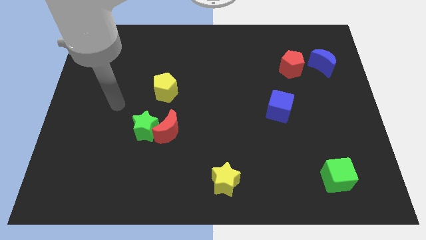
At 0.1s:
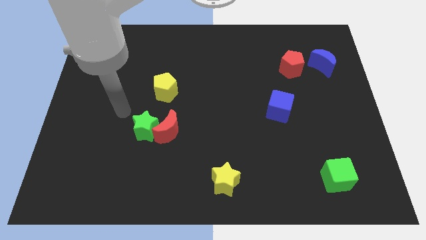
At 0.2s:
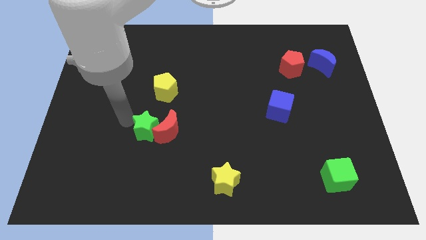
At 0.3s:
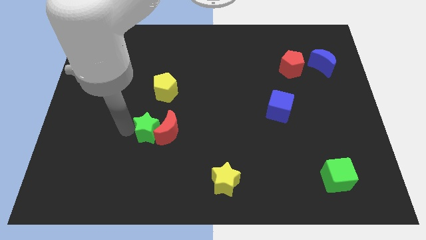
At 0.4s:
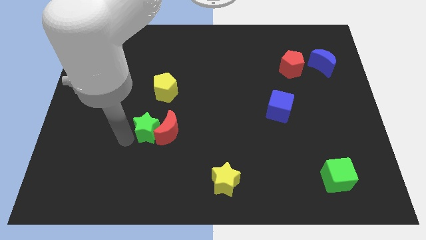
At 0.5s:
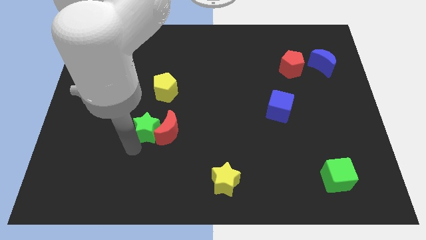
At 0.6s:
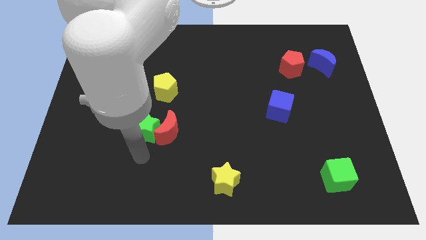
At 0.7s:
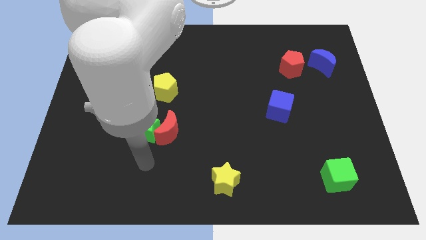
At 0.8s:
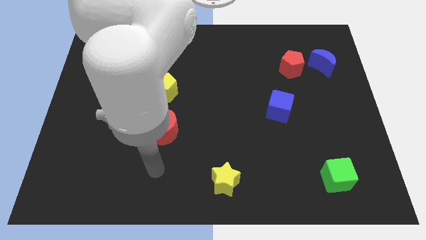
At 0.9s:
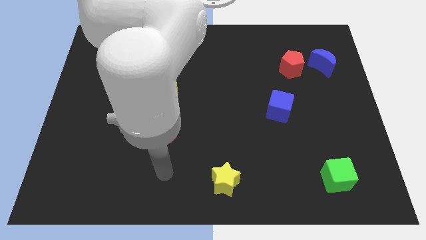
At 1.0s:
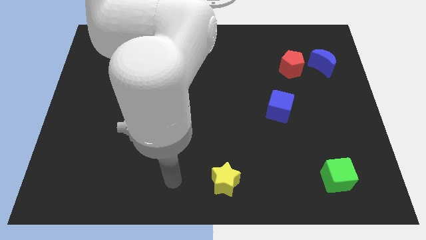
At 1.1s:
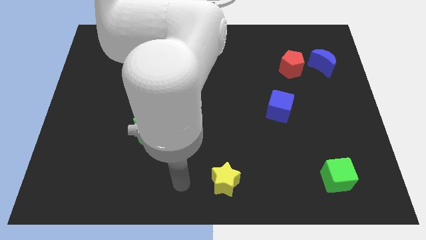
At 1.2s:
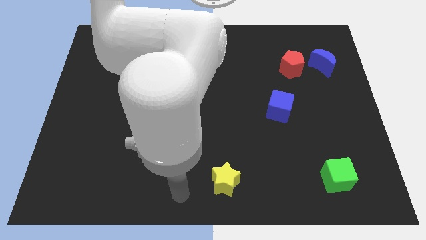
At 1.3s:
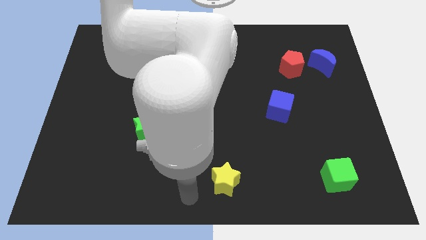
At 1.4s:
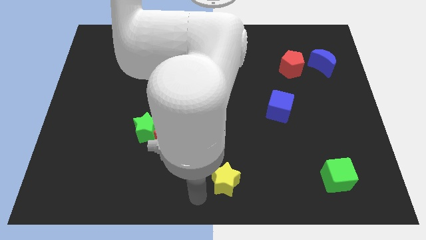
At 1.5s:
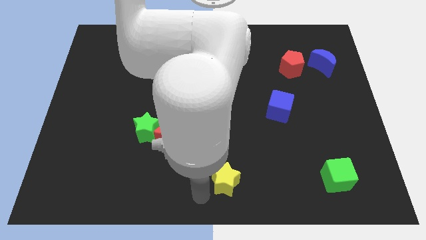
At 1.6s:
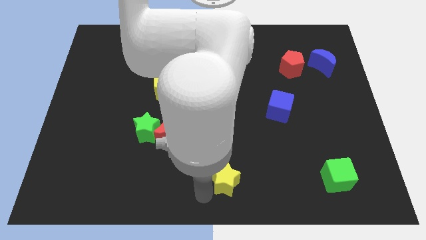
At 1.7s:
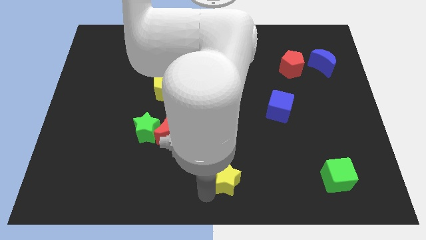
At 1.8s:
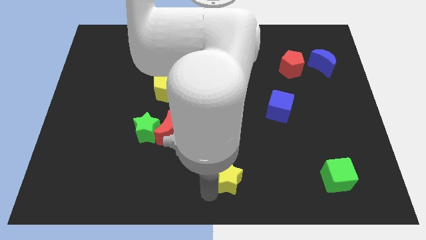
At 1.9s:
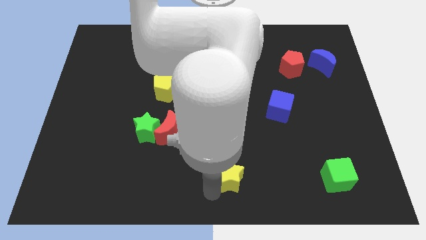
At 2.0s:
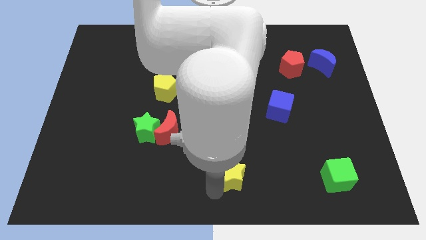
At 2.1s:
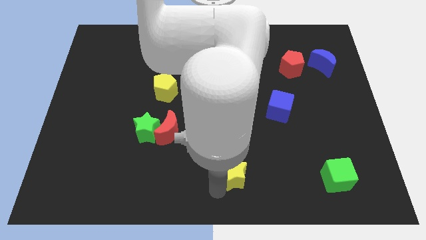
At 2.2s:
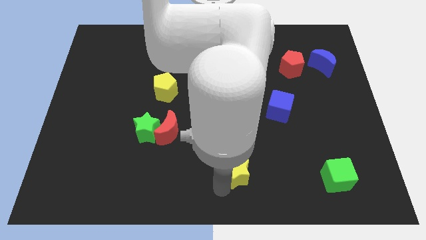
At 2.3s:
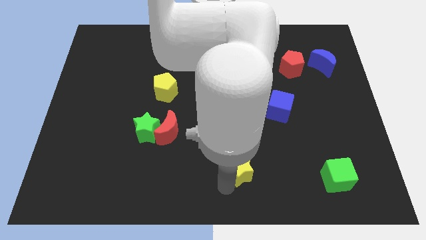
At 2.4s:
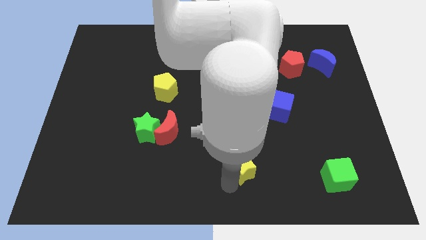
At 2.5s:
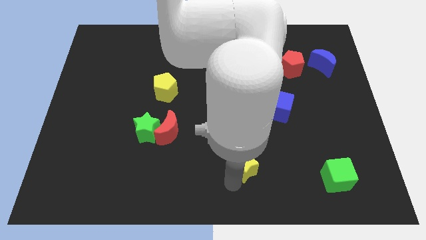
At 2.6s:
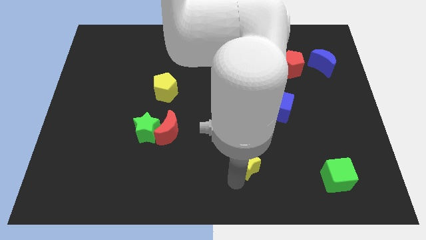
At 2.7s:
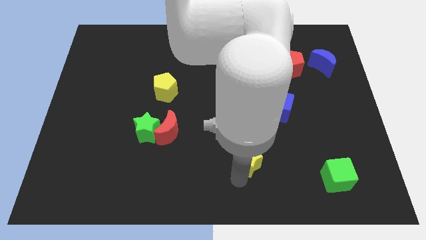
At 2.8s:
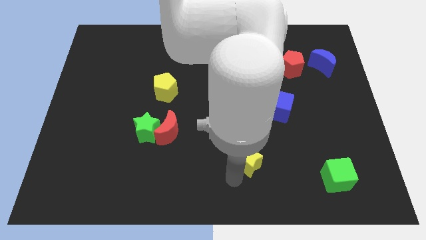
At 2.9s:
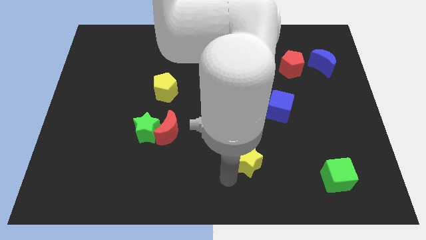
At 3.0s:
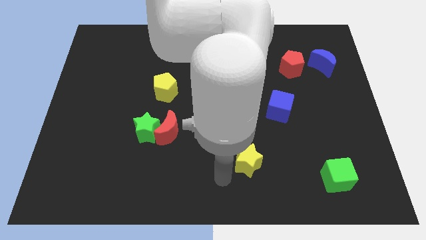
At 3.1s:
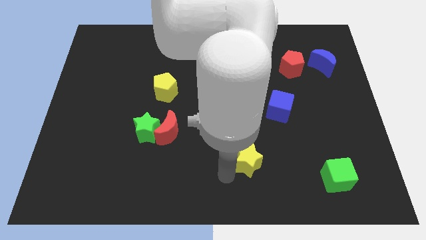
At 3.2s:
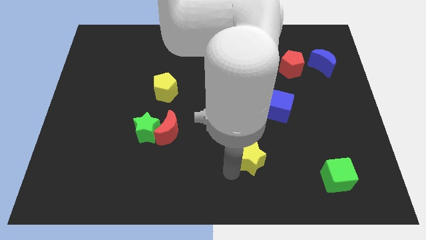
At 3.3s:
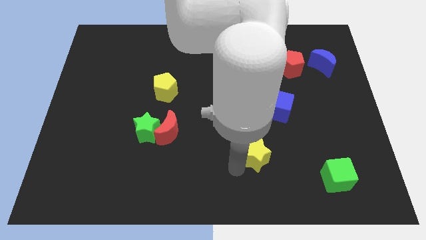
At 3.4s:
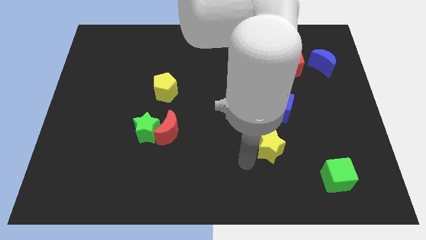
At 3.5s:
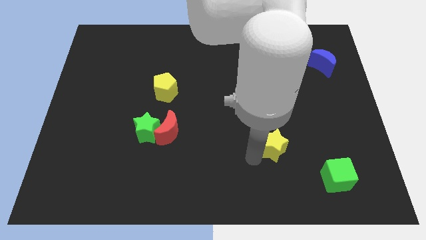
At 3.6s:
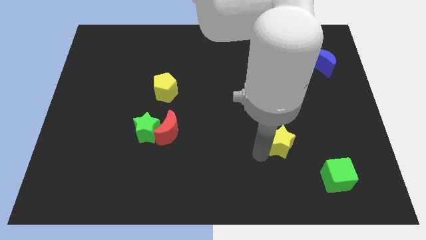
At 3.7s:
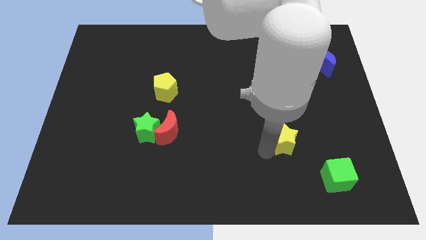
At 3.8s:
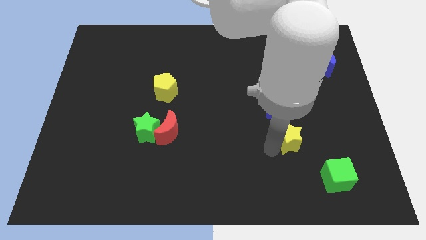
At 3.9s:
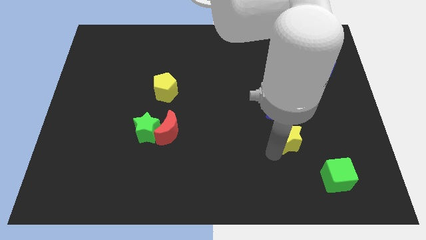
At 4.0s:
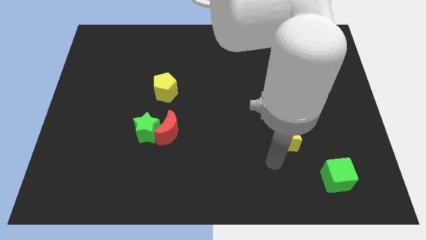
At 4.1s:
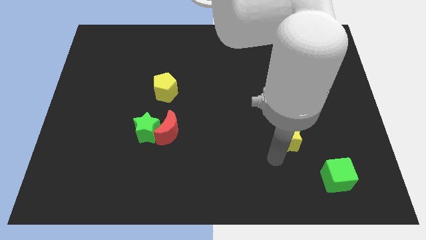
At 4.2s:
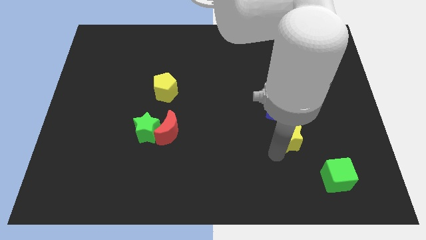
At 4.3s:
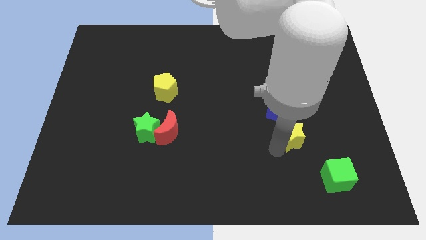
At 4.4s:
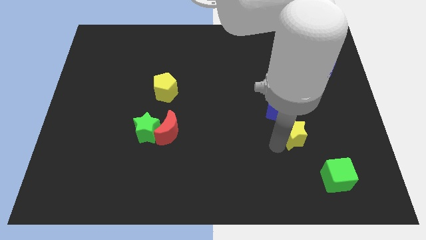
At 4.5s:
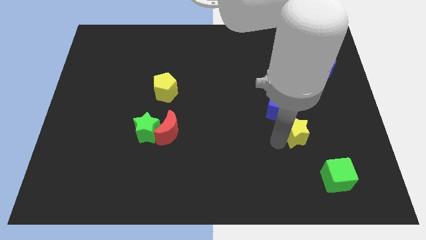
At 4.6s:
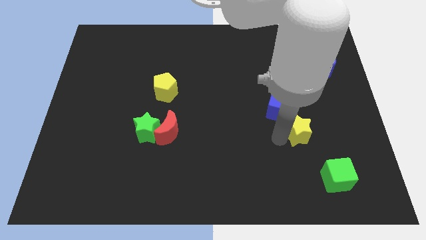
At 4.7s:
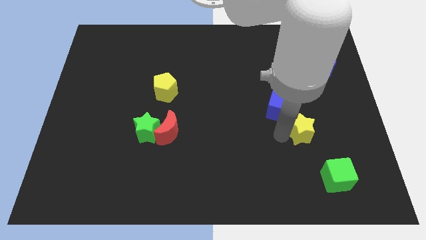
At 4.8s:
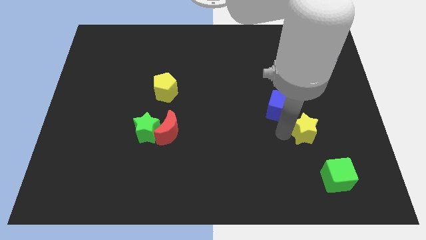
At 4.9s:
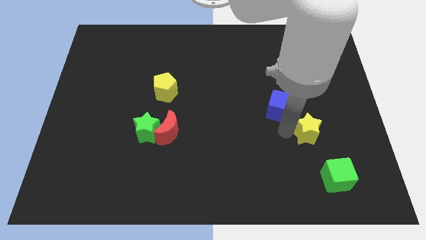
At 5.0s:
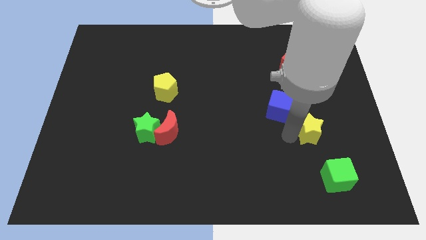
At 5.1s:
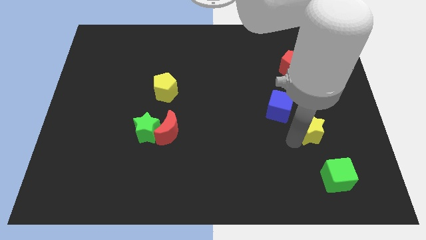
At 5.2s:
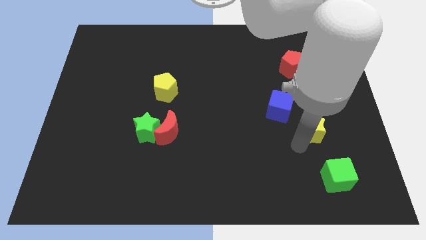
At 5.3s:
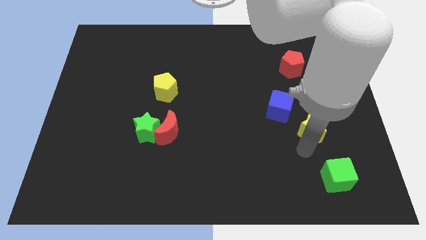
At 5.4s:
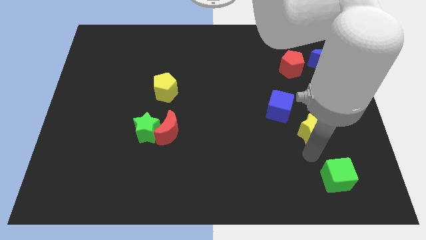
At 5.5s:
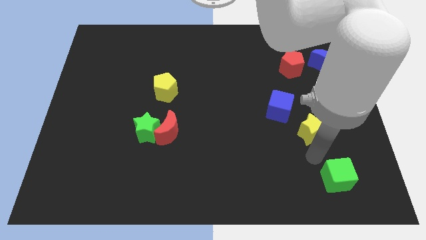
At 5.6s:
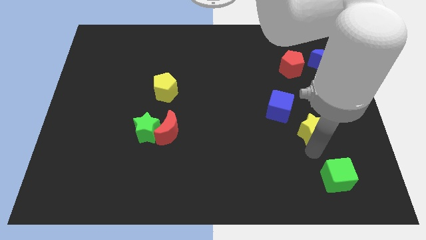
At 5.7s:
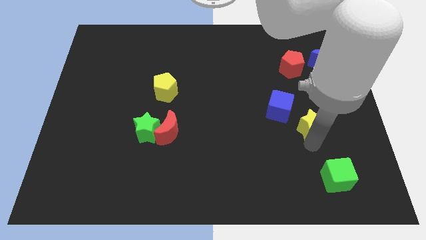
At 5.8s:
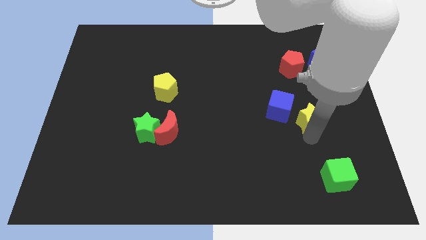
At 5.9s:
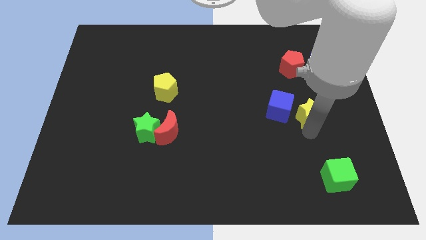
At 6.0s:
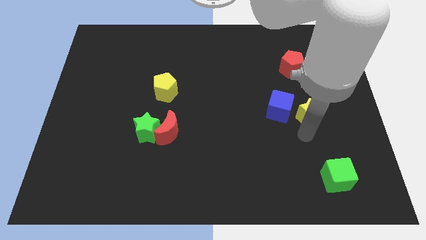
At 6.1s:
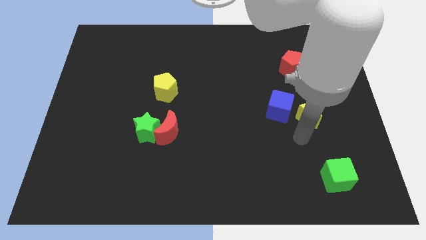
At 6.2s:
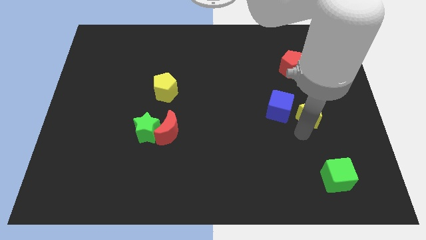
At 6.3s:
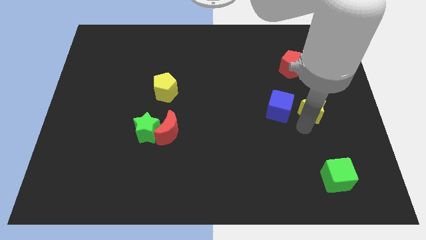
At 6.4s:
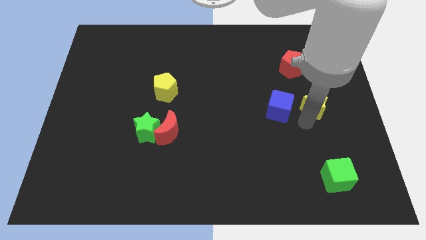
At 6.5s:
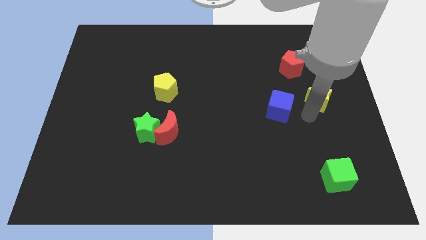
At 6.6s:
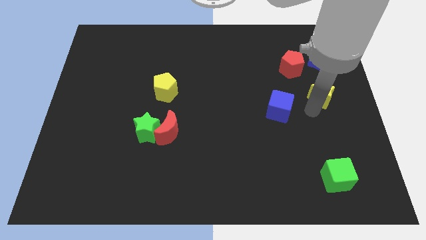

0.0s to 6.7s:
push the yellow star diagonally down and to the right of the red pentagon
